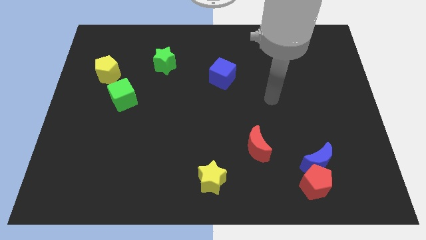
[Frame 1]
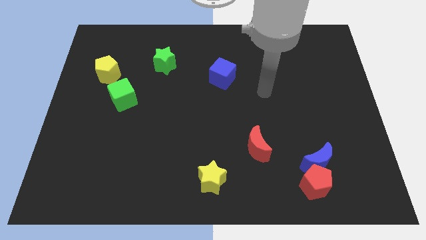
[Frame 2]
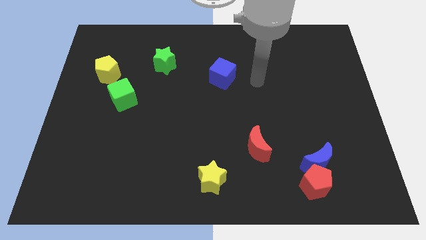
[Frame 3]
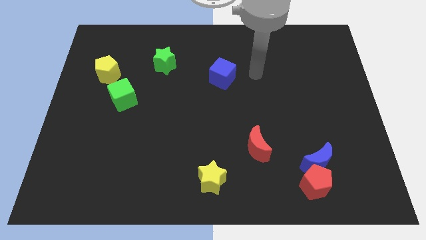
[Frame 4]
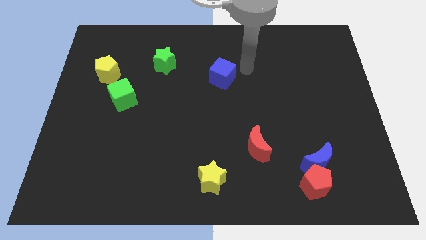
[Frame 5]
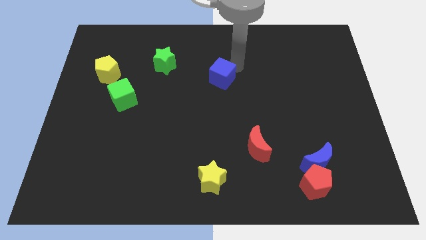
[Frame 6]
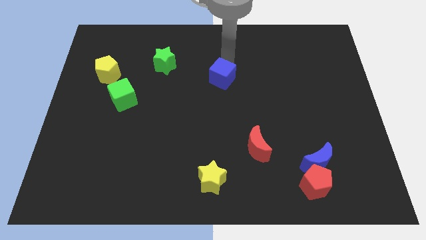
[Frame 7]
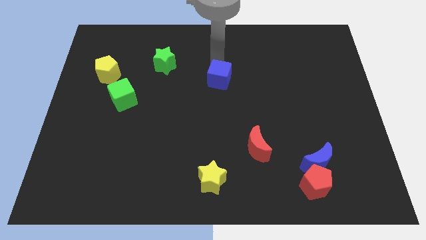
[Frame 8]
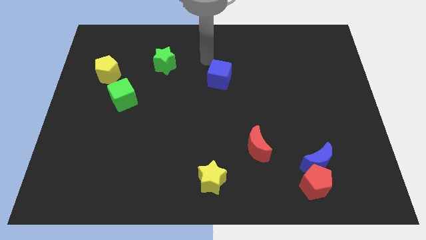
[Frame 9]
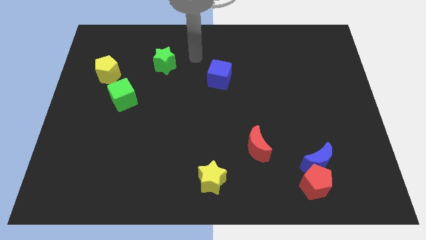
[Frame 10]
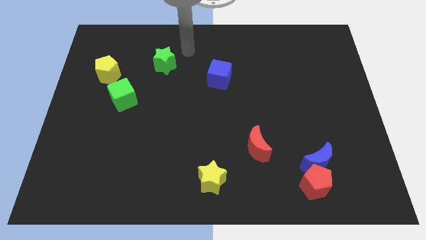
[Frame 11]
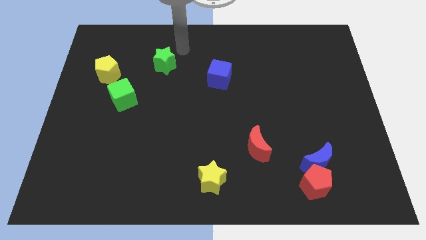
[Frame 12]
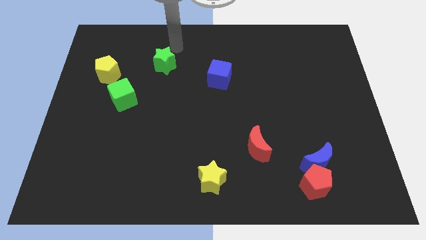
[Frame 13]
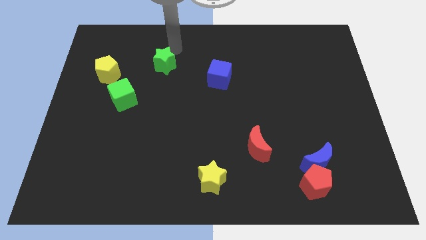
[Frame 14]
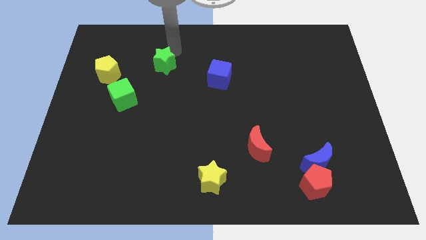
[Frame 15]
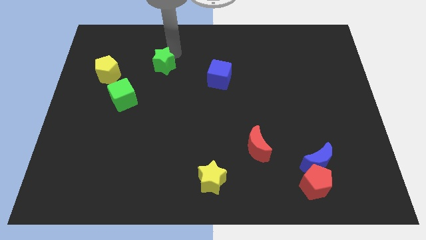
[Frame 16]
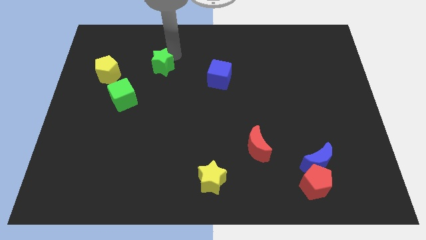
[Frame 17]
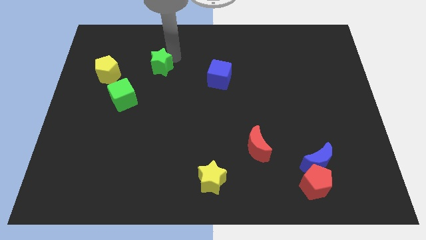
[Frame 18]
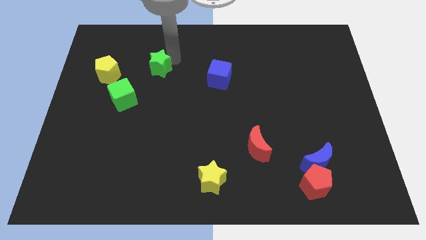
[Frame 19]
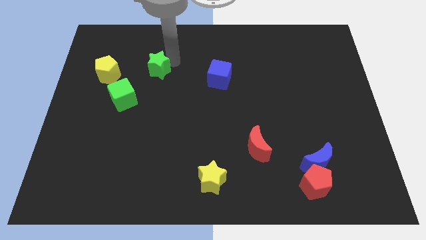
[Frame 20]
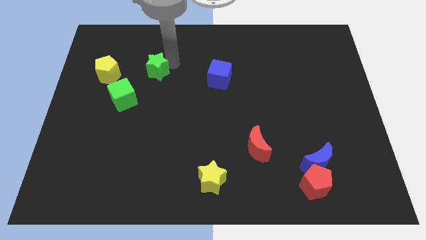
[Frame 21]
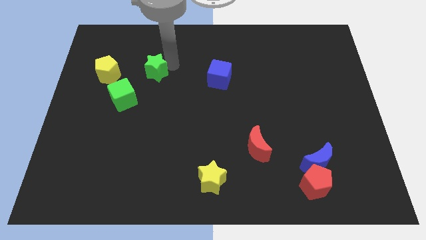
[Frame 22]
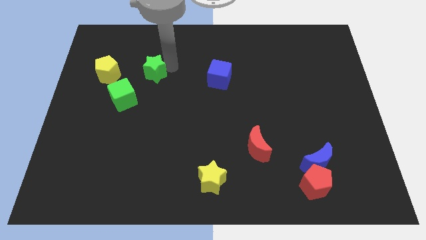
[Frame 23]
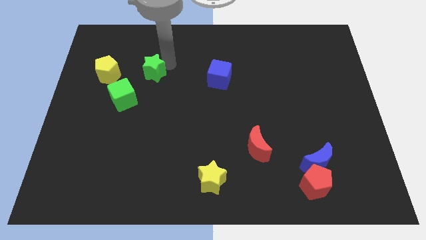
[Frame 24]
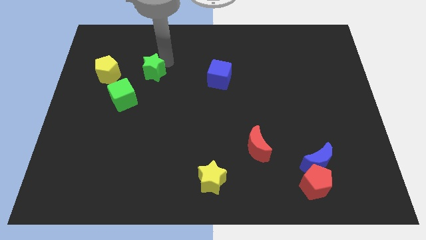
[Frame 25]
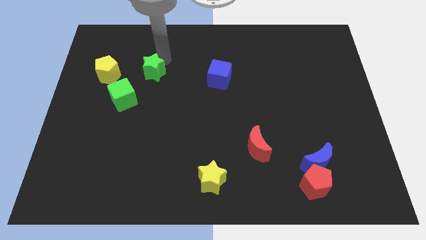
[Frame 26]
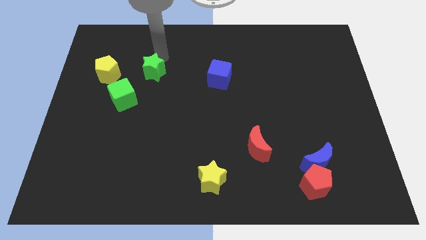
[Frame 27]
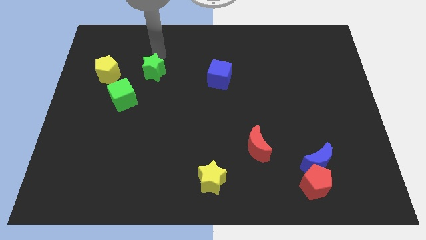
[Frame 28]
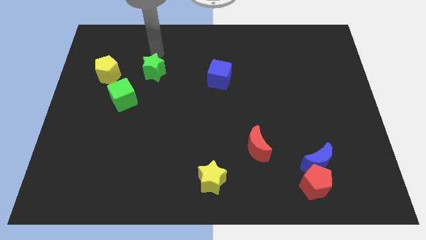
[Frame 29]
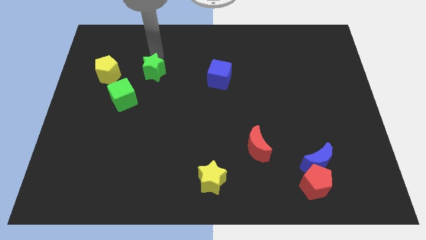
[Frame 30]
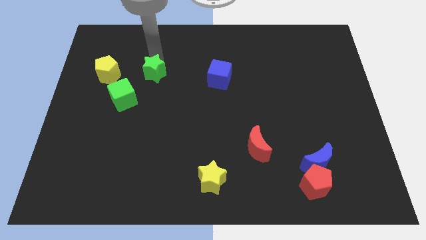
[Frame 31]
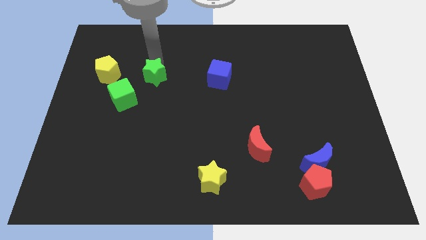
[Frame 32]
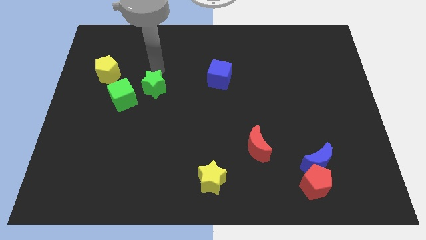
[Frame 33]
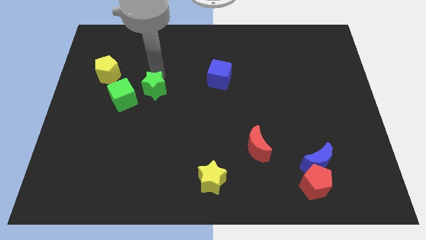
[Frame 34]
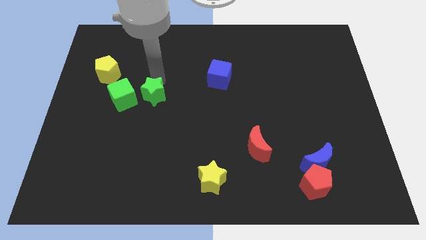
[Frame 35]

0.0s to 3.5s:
push the green star slightly downwards and then left

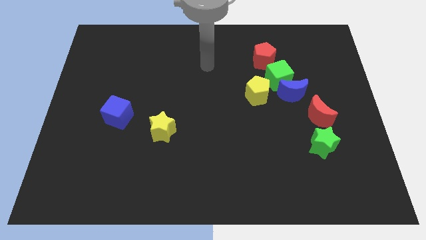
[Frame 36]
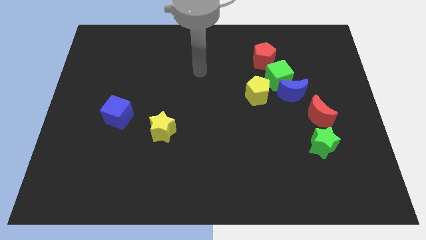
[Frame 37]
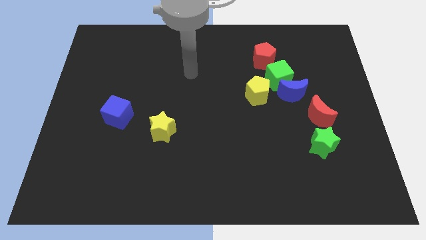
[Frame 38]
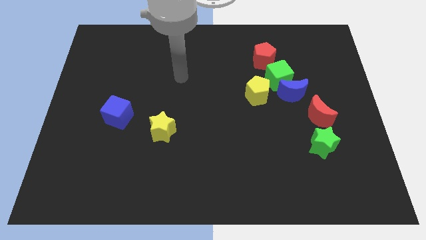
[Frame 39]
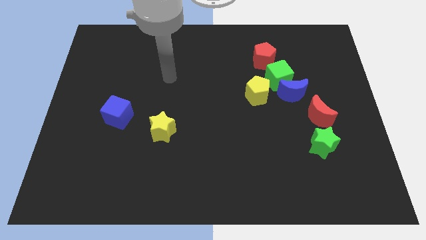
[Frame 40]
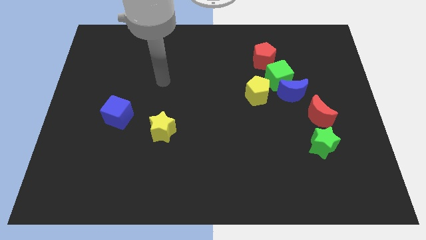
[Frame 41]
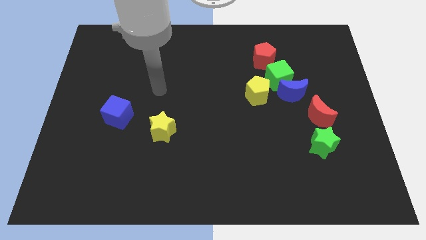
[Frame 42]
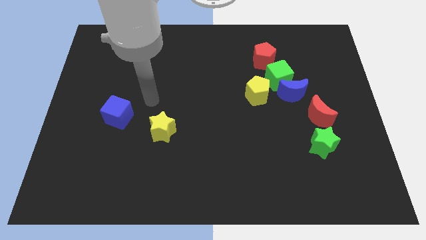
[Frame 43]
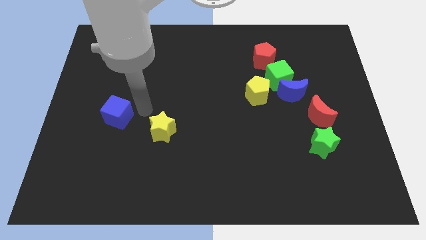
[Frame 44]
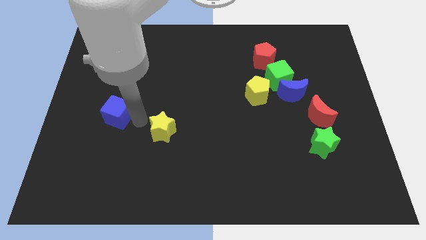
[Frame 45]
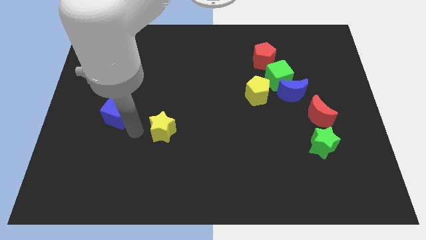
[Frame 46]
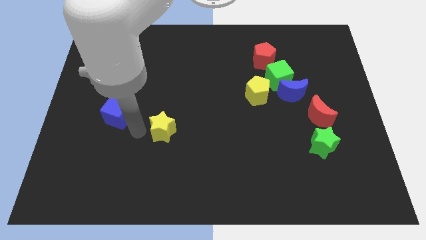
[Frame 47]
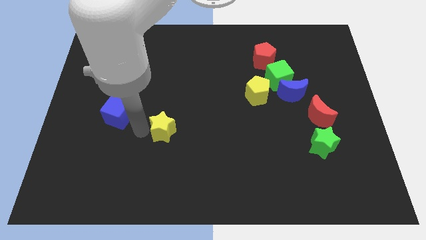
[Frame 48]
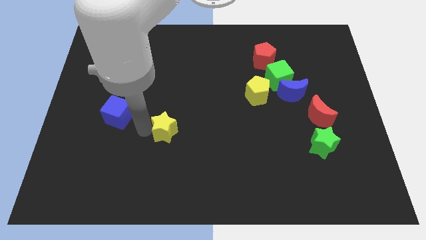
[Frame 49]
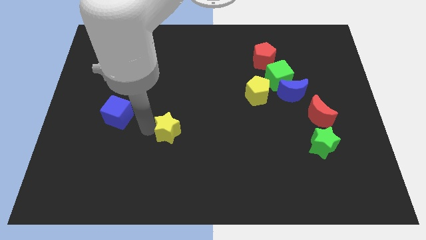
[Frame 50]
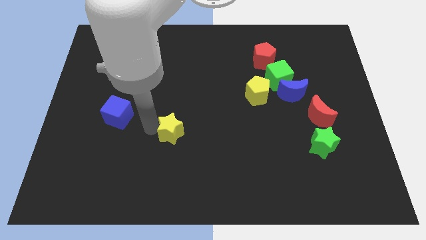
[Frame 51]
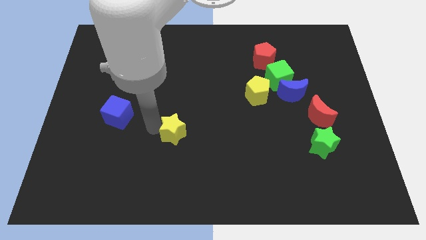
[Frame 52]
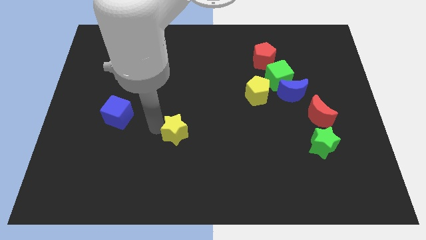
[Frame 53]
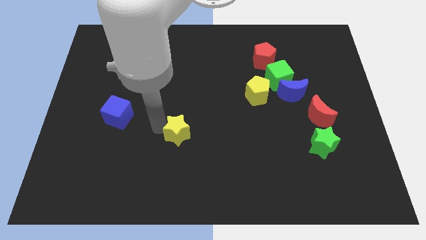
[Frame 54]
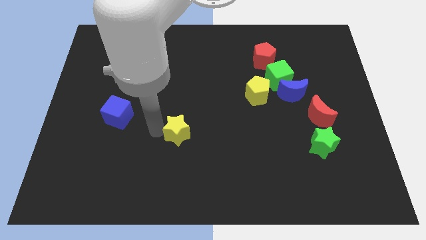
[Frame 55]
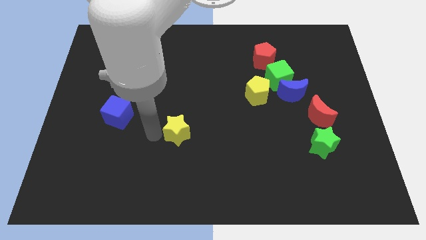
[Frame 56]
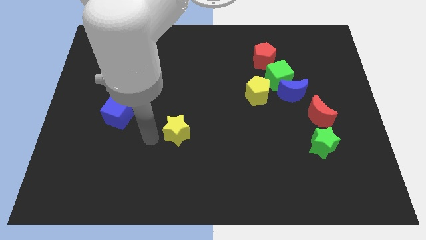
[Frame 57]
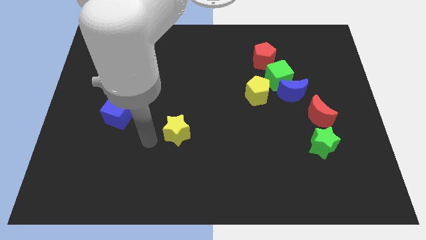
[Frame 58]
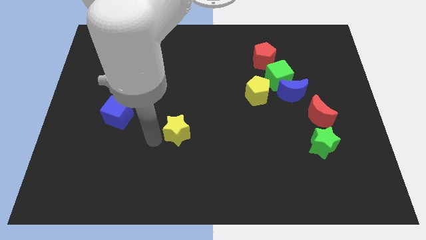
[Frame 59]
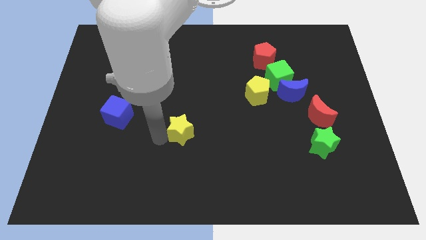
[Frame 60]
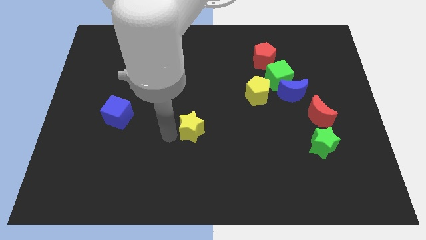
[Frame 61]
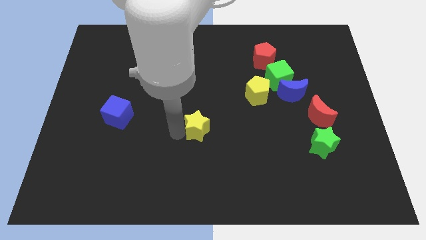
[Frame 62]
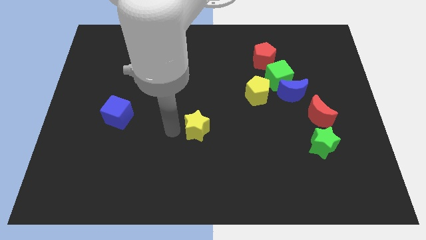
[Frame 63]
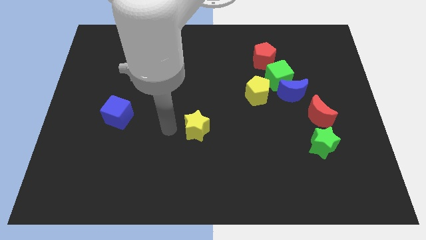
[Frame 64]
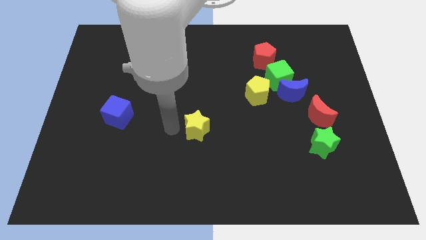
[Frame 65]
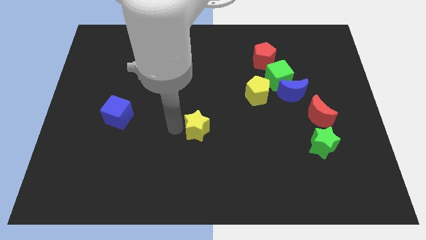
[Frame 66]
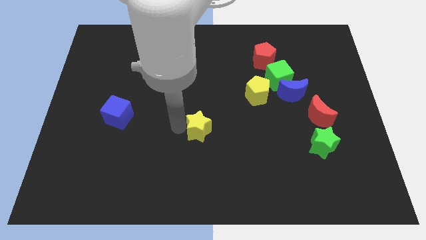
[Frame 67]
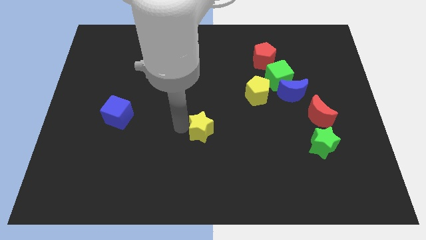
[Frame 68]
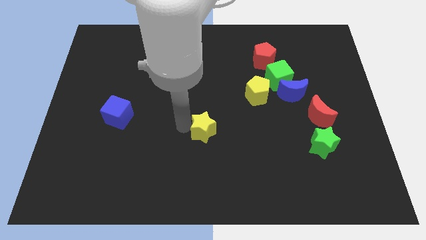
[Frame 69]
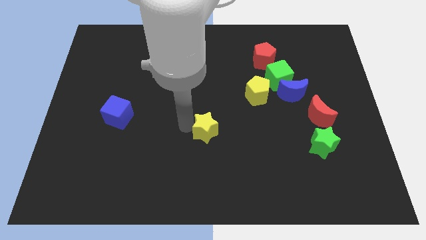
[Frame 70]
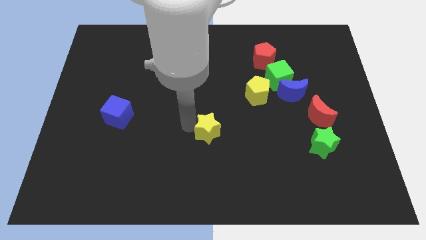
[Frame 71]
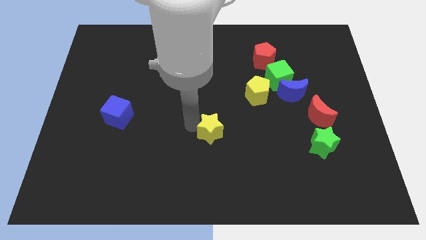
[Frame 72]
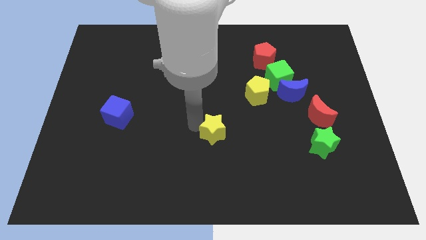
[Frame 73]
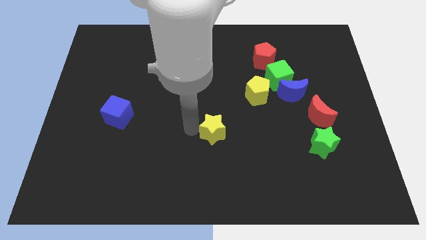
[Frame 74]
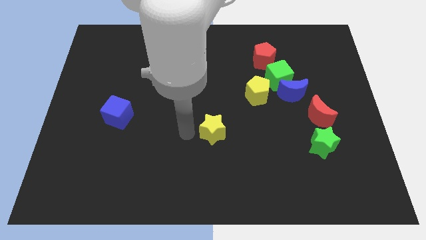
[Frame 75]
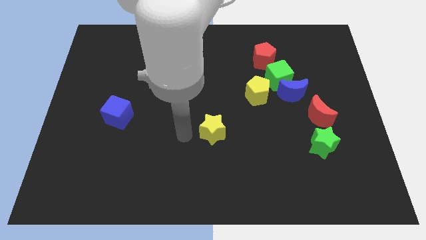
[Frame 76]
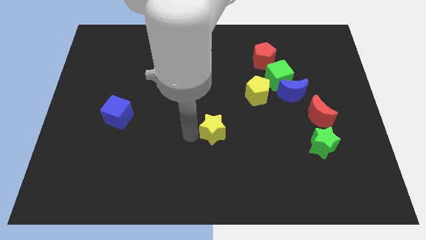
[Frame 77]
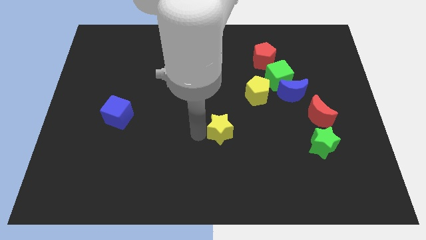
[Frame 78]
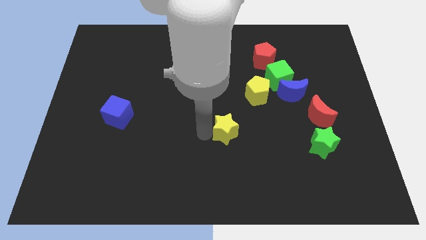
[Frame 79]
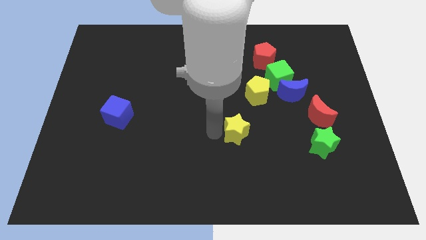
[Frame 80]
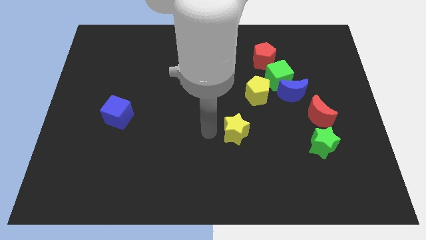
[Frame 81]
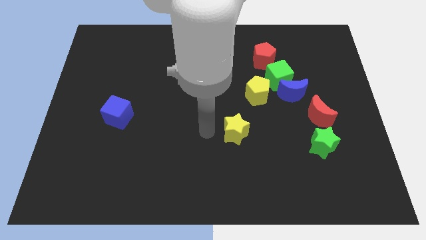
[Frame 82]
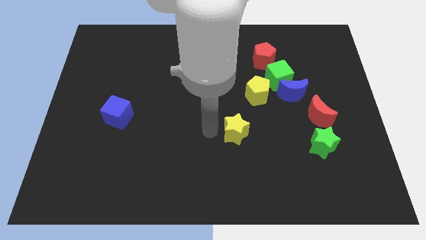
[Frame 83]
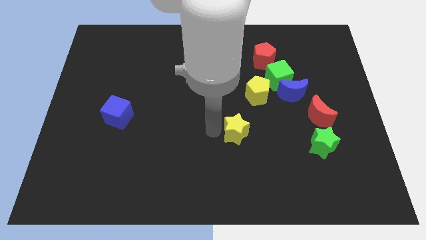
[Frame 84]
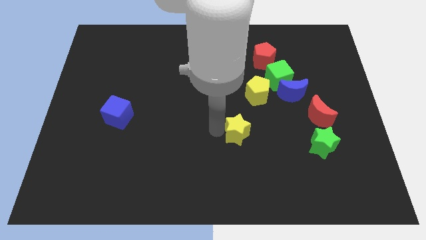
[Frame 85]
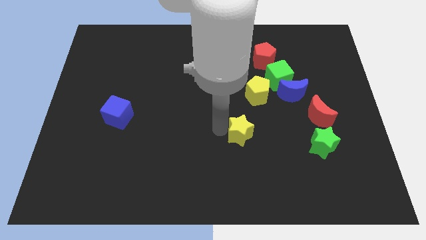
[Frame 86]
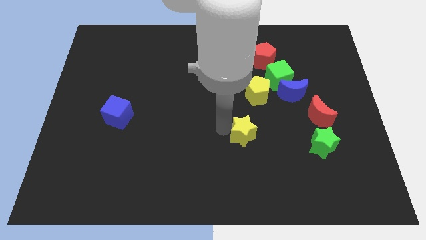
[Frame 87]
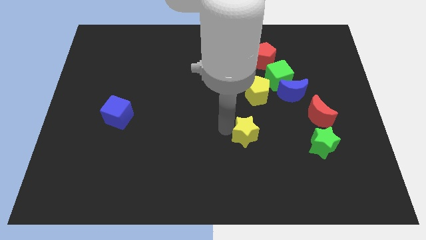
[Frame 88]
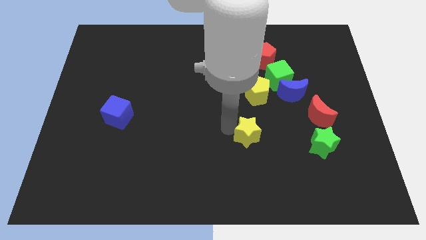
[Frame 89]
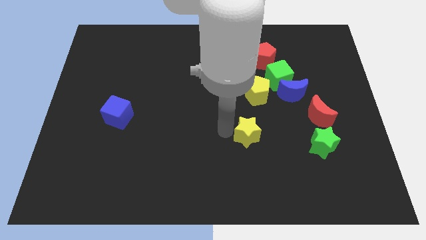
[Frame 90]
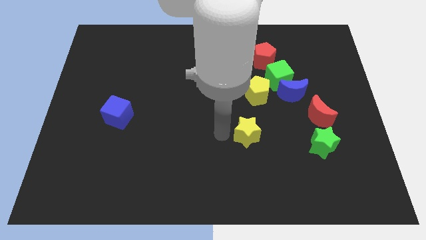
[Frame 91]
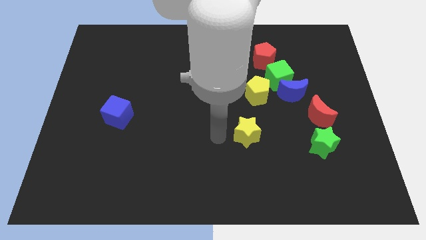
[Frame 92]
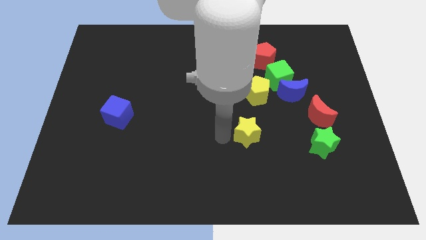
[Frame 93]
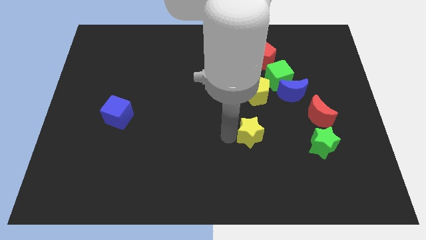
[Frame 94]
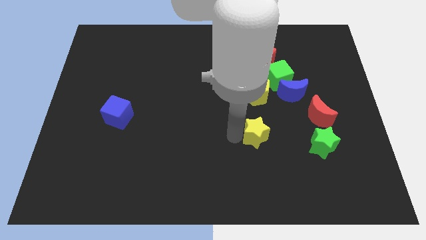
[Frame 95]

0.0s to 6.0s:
push the yellow star right
